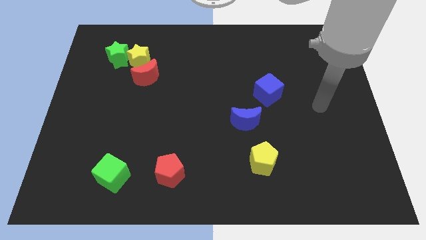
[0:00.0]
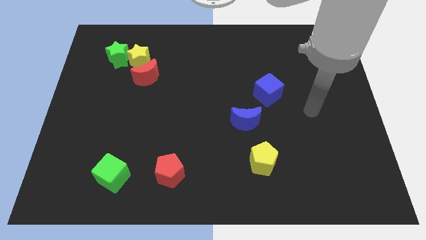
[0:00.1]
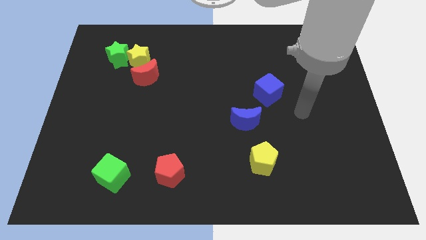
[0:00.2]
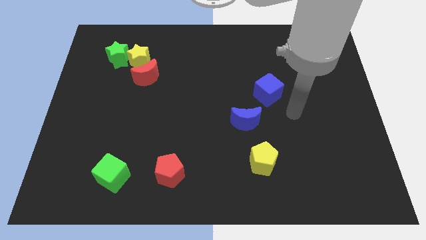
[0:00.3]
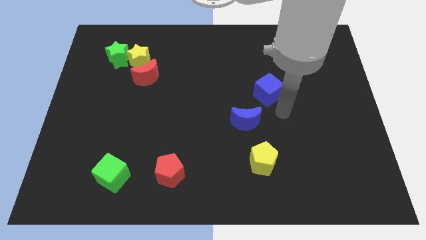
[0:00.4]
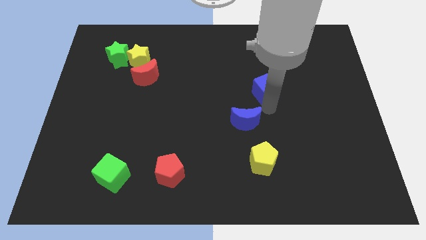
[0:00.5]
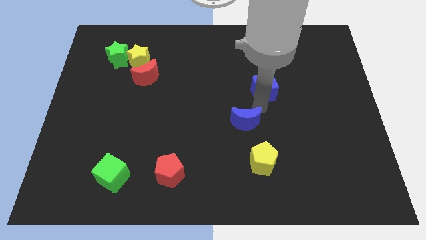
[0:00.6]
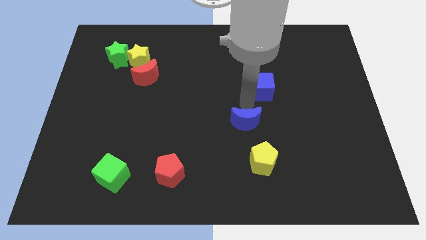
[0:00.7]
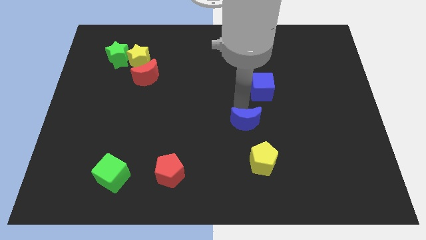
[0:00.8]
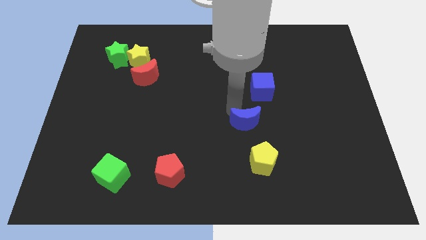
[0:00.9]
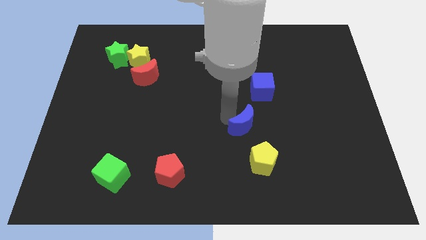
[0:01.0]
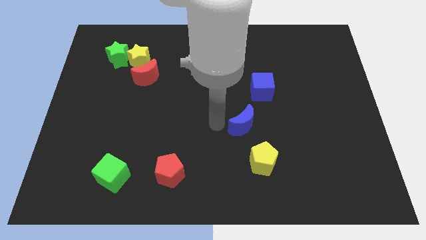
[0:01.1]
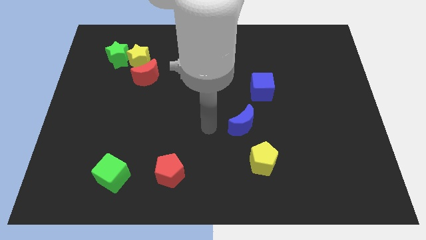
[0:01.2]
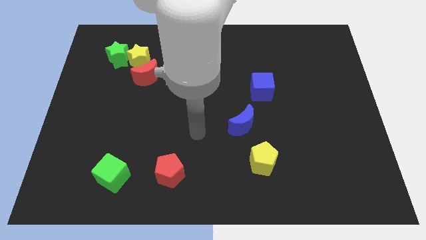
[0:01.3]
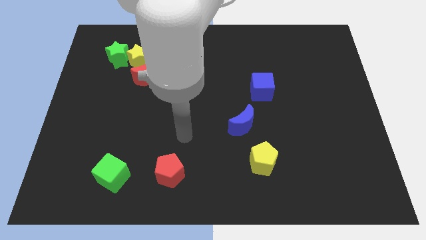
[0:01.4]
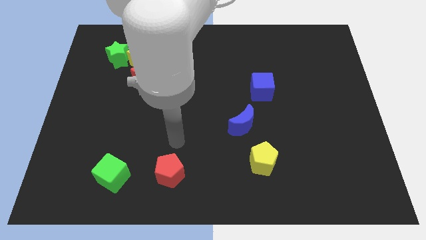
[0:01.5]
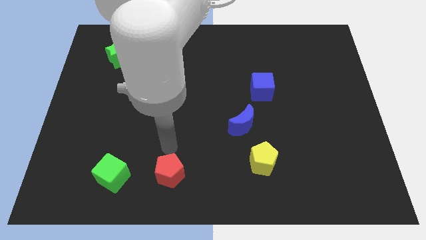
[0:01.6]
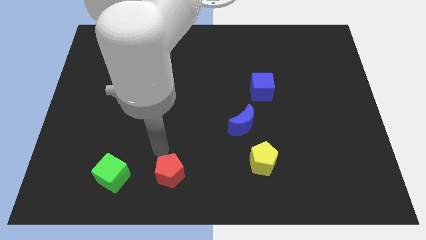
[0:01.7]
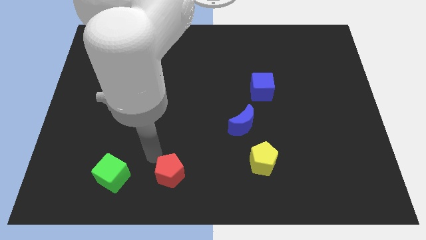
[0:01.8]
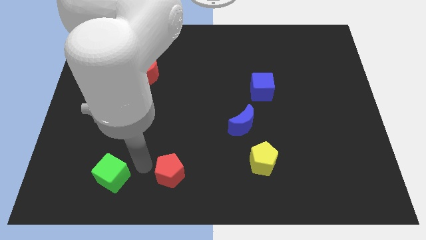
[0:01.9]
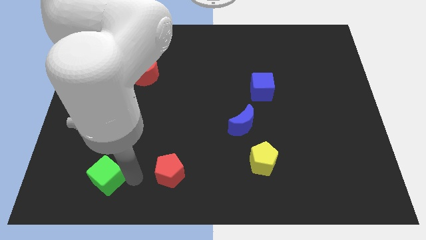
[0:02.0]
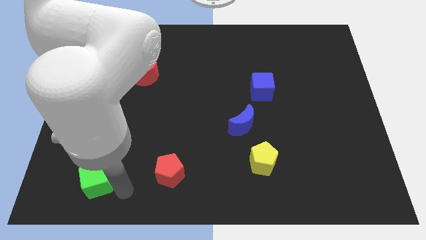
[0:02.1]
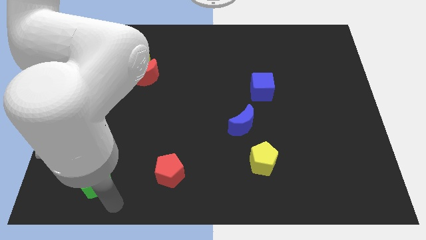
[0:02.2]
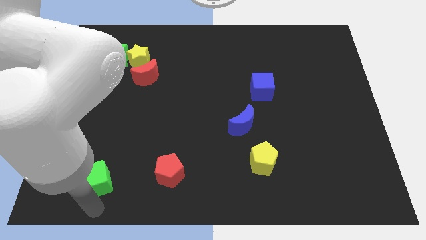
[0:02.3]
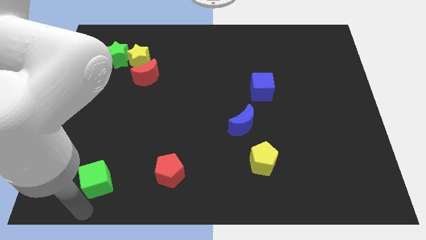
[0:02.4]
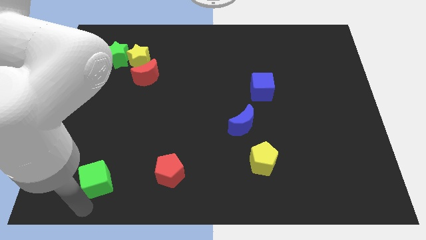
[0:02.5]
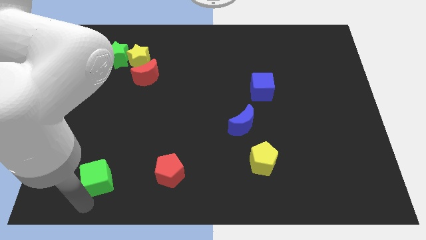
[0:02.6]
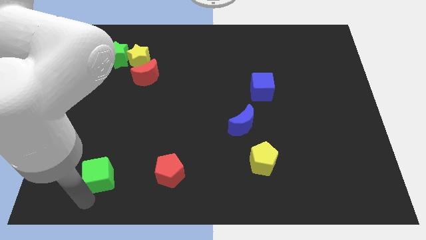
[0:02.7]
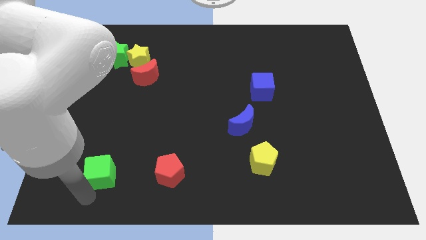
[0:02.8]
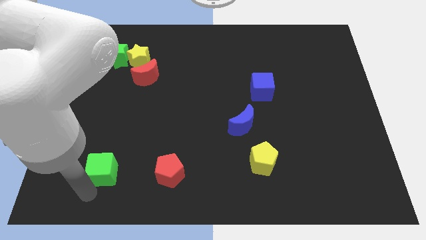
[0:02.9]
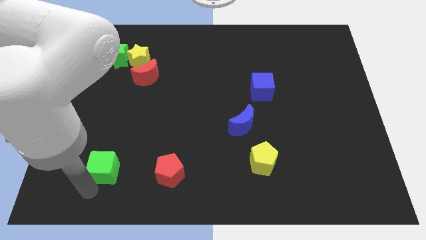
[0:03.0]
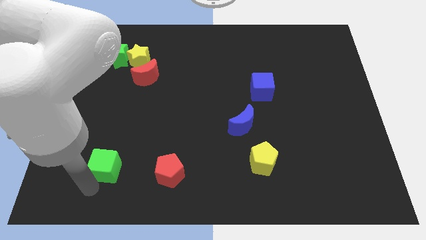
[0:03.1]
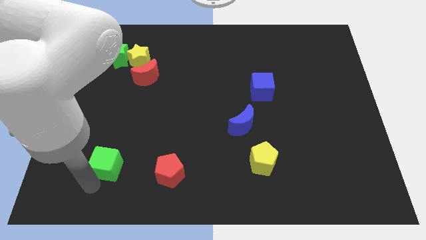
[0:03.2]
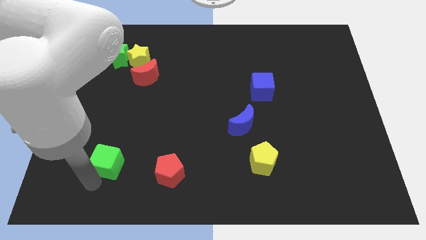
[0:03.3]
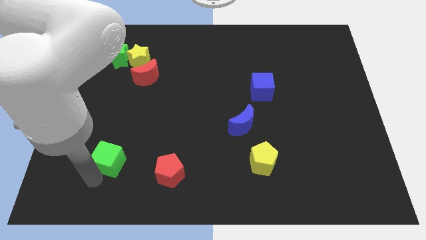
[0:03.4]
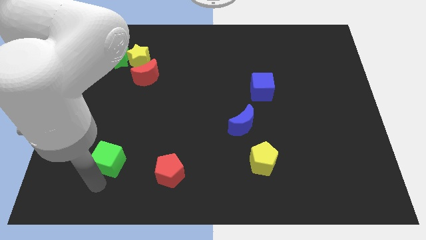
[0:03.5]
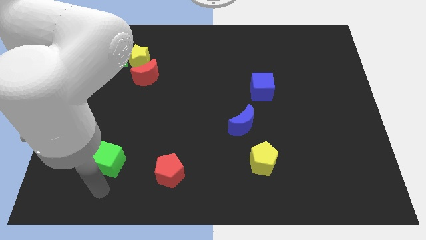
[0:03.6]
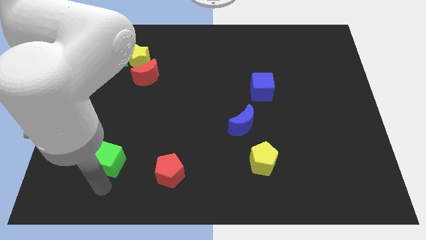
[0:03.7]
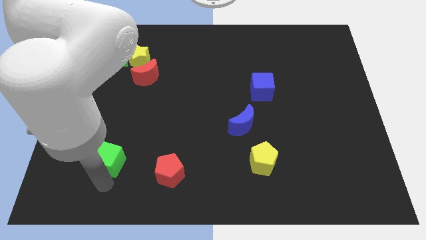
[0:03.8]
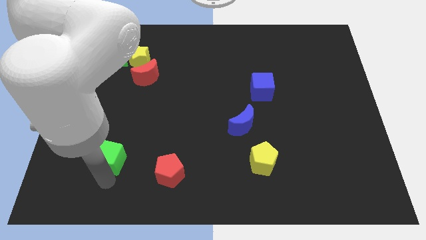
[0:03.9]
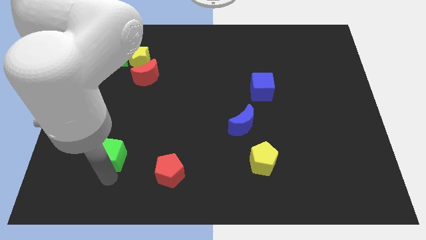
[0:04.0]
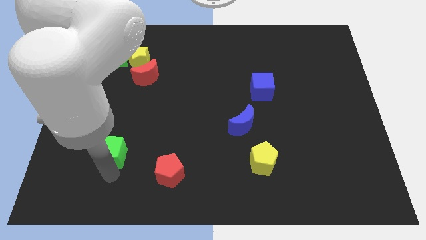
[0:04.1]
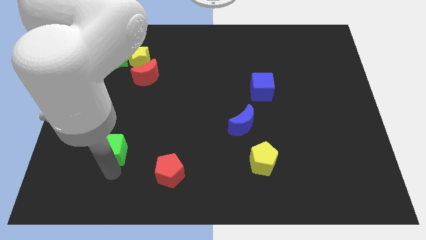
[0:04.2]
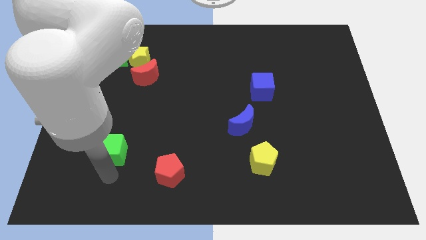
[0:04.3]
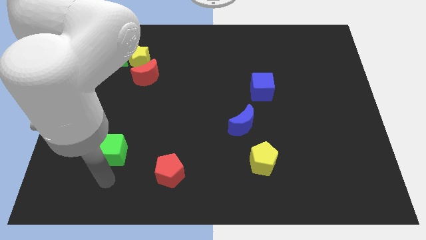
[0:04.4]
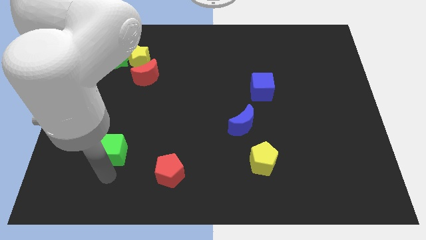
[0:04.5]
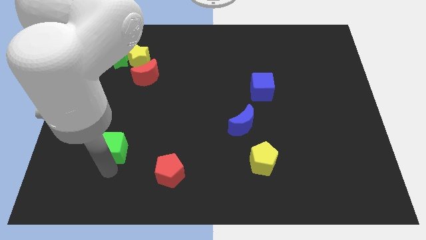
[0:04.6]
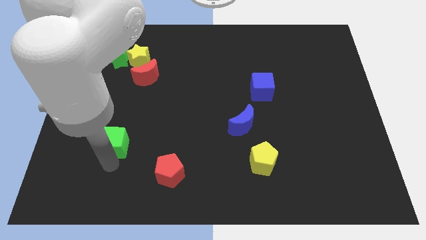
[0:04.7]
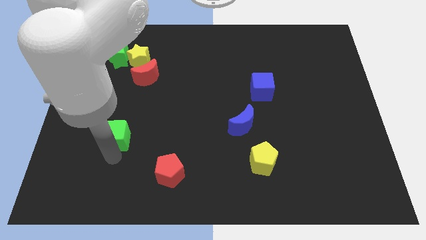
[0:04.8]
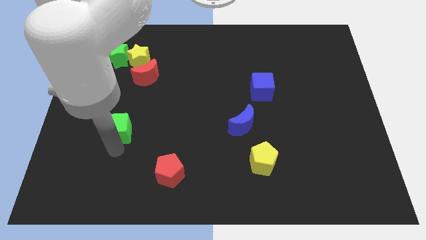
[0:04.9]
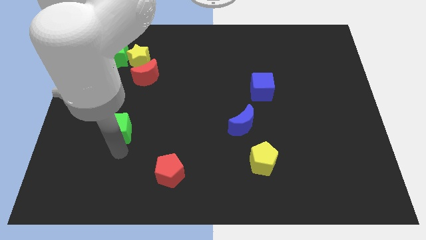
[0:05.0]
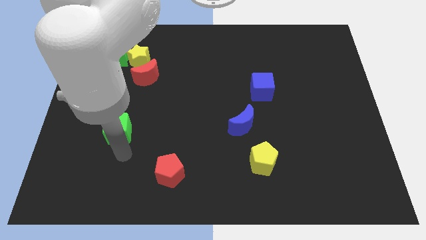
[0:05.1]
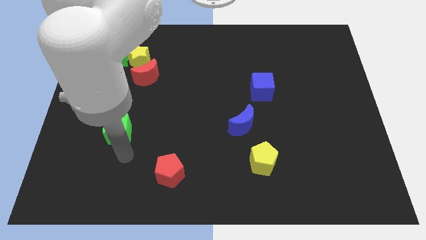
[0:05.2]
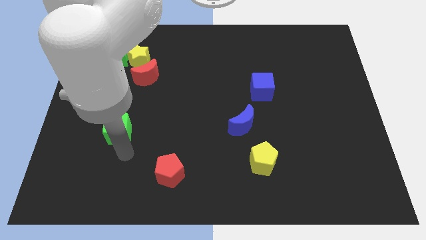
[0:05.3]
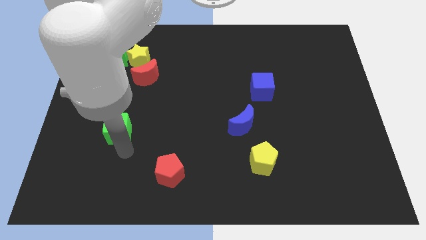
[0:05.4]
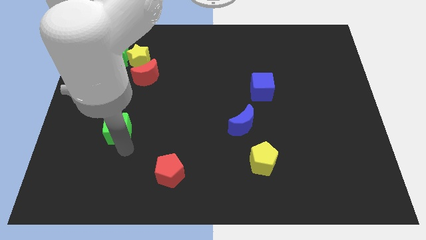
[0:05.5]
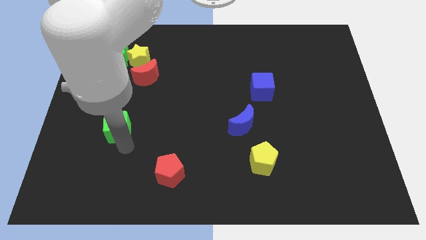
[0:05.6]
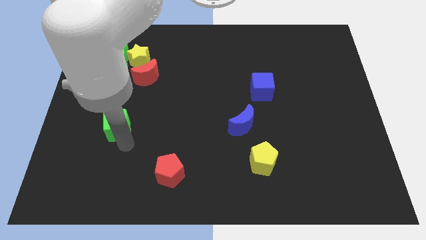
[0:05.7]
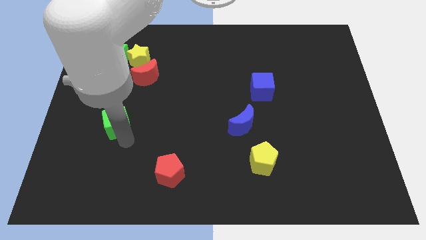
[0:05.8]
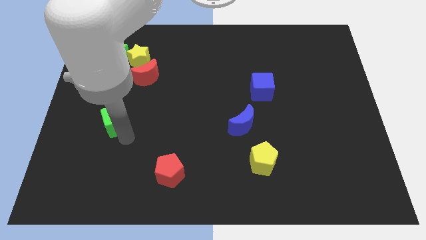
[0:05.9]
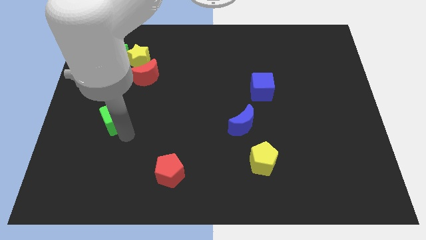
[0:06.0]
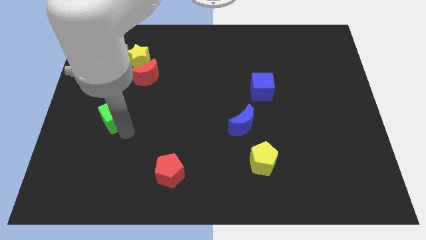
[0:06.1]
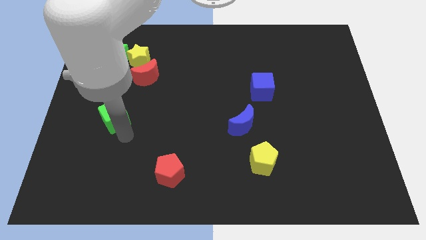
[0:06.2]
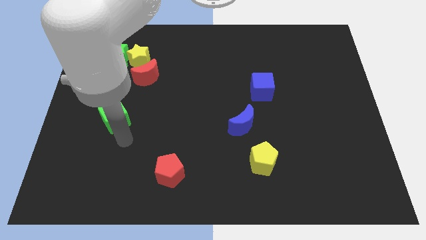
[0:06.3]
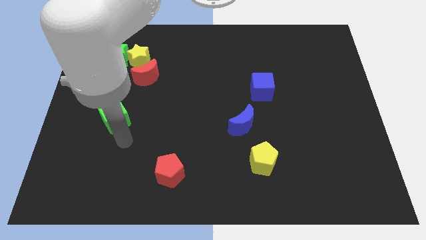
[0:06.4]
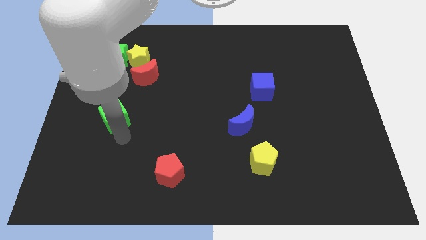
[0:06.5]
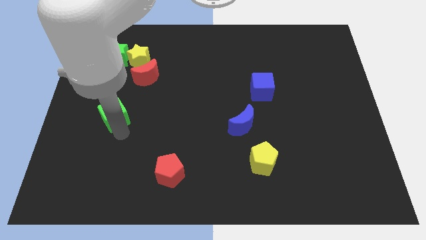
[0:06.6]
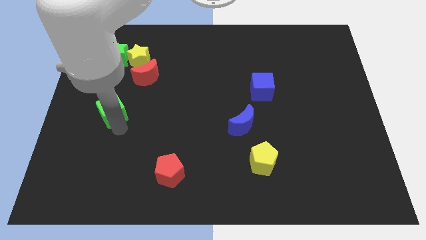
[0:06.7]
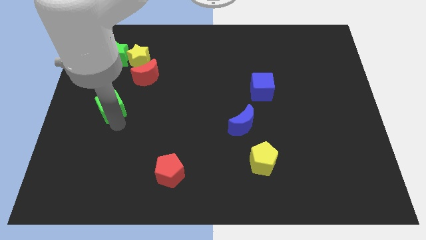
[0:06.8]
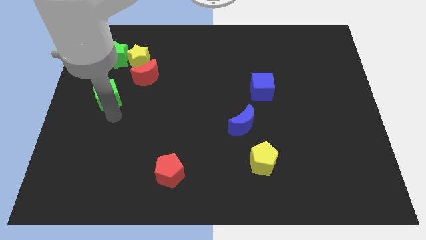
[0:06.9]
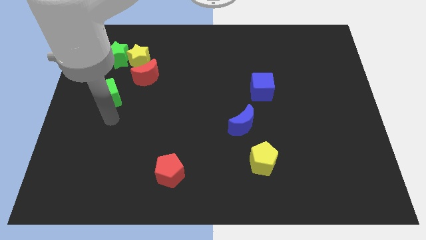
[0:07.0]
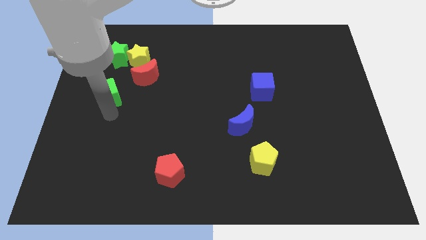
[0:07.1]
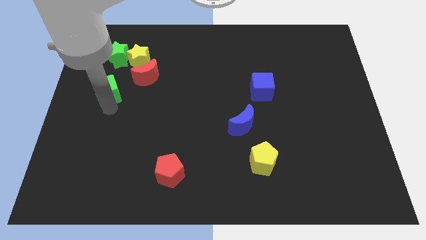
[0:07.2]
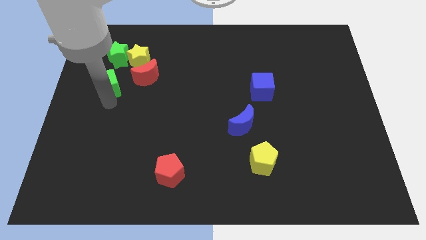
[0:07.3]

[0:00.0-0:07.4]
move the green cube left of the red moon
